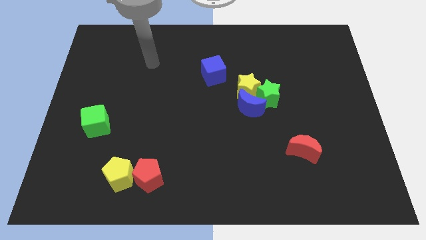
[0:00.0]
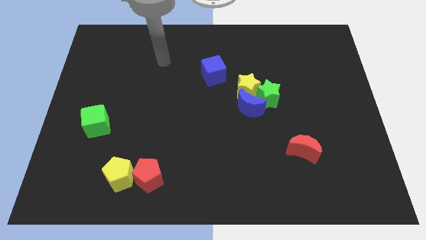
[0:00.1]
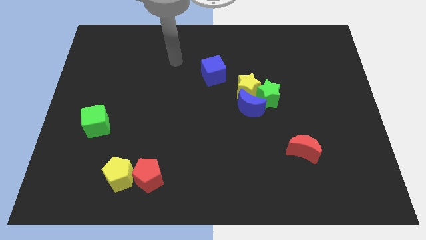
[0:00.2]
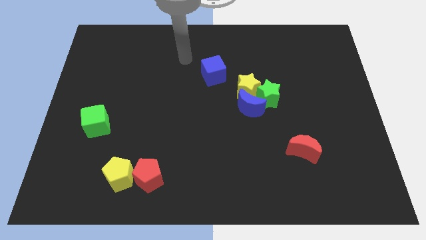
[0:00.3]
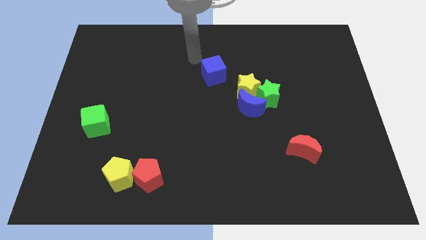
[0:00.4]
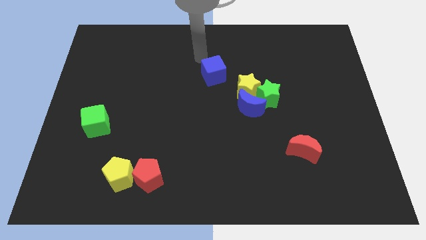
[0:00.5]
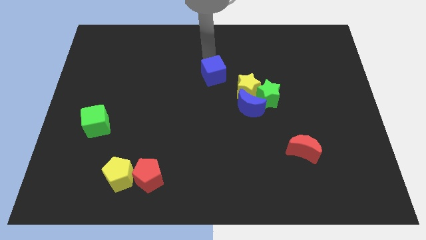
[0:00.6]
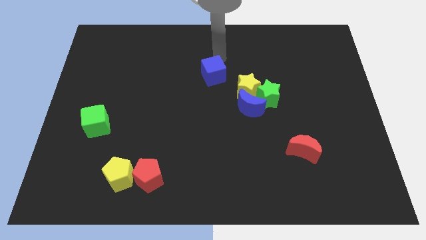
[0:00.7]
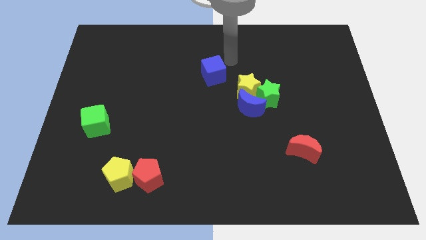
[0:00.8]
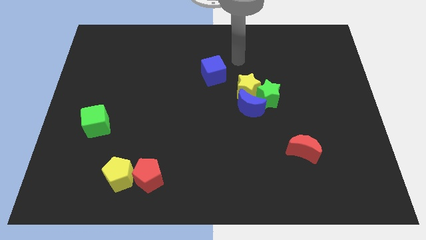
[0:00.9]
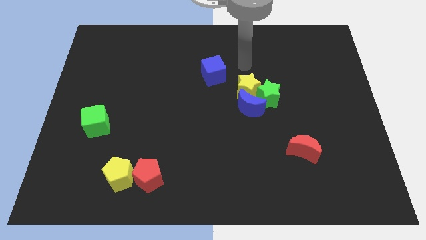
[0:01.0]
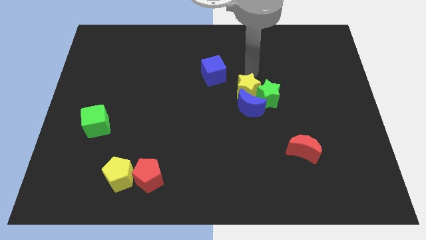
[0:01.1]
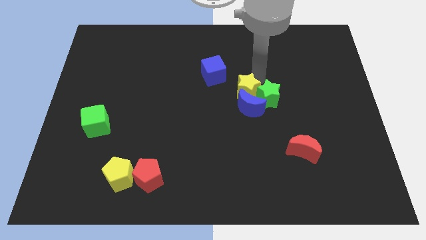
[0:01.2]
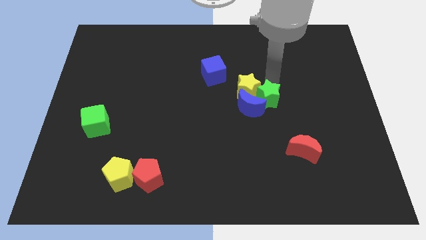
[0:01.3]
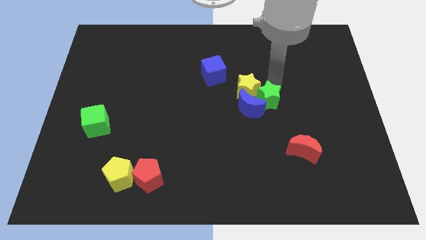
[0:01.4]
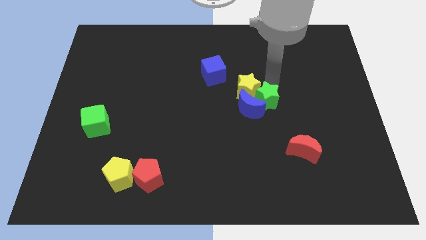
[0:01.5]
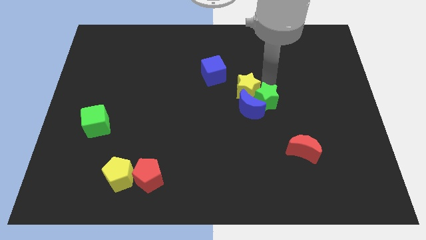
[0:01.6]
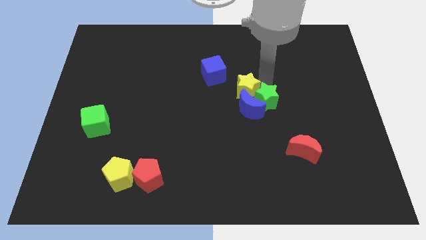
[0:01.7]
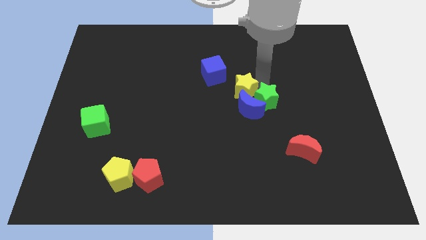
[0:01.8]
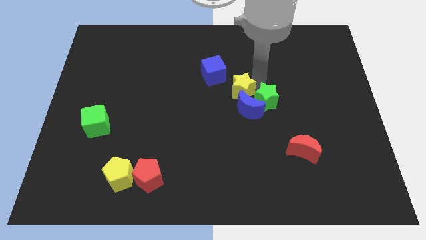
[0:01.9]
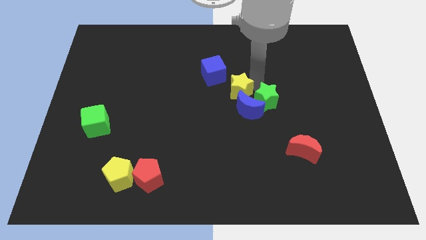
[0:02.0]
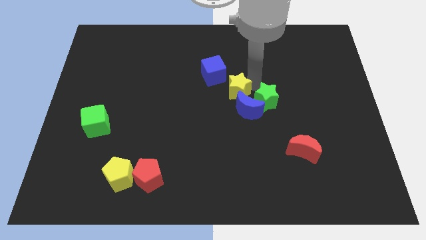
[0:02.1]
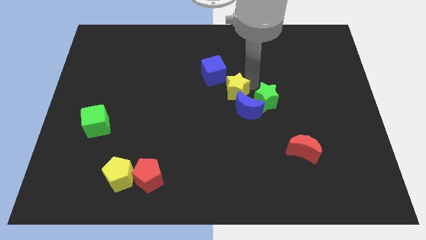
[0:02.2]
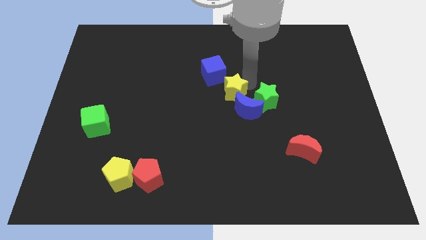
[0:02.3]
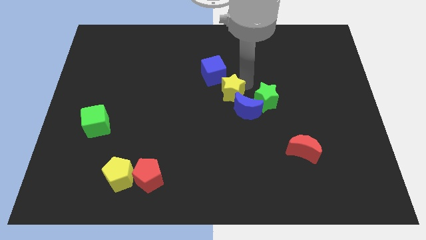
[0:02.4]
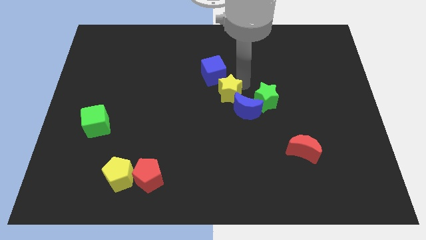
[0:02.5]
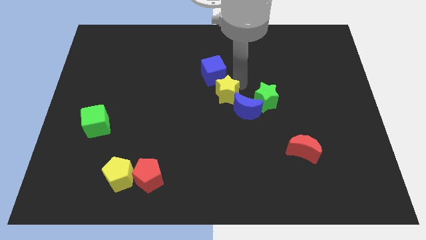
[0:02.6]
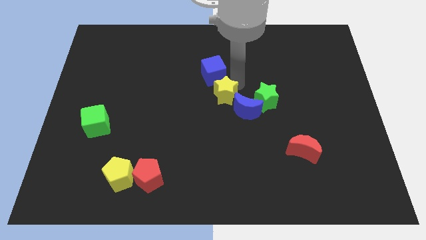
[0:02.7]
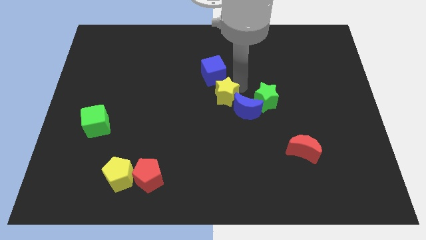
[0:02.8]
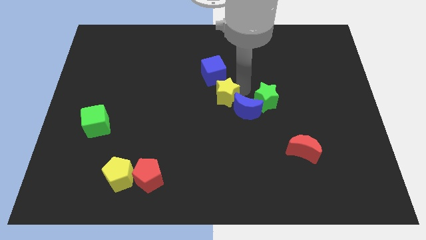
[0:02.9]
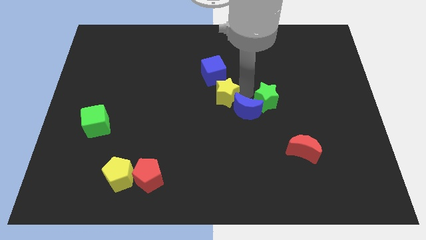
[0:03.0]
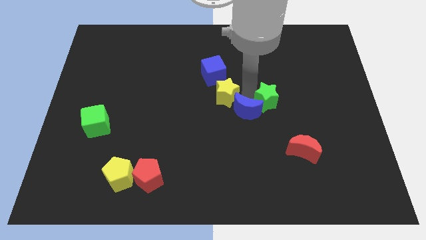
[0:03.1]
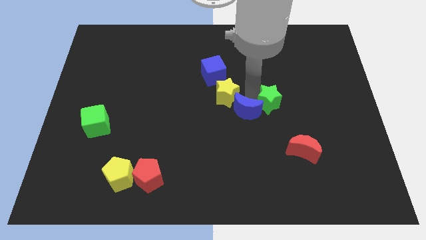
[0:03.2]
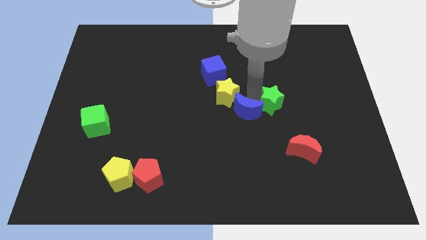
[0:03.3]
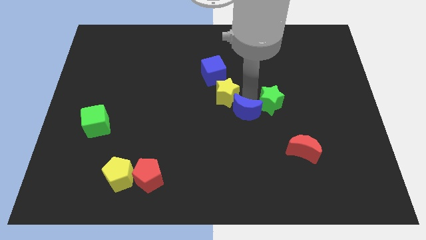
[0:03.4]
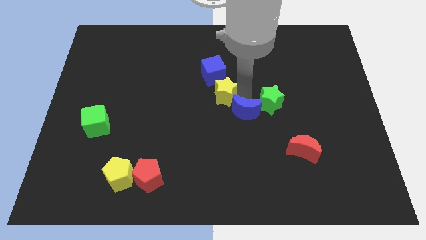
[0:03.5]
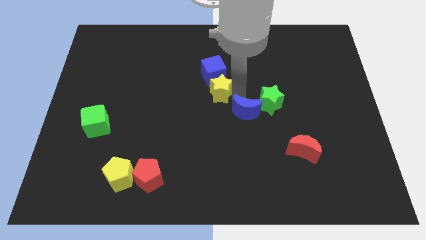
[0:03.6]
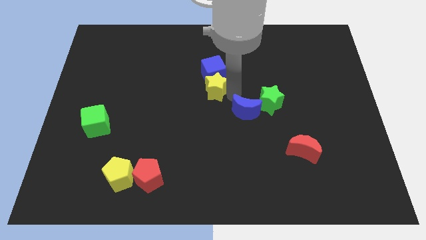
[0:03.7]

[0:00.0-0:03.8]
push the yellow star left slightly

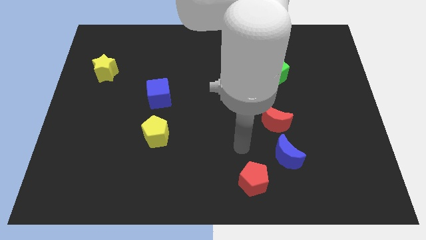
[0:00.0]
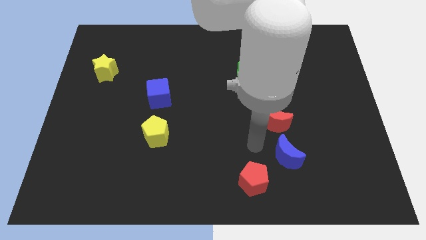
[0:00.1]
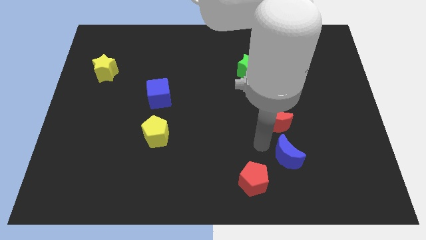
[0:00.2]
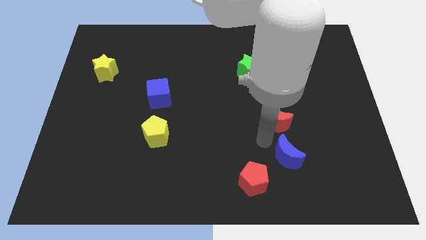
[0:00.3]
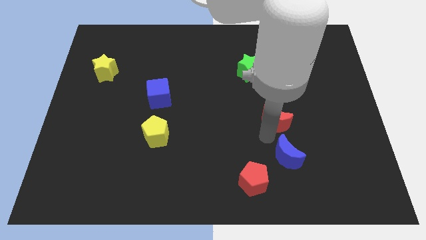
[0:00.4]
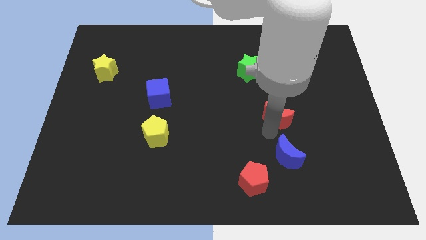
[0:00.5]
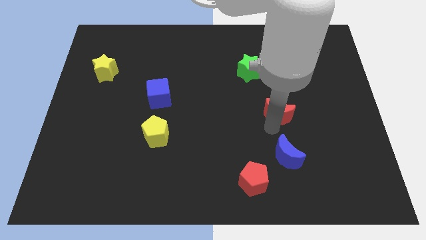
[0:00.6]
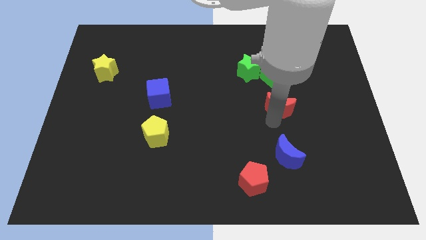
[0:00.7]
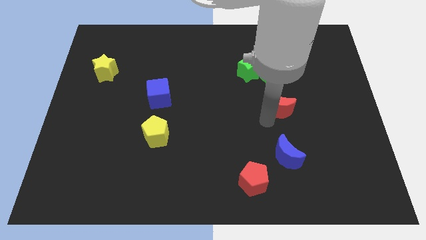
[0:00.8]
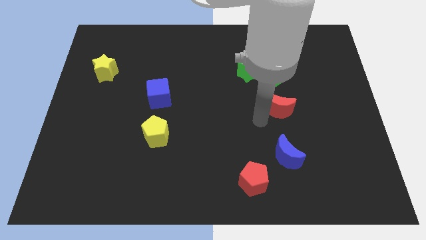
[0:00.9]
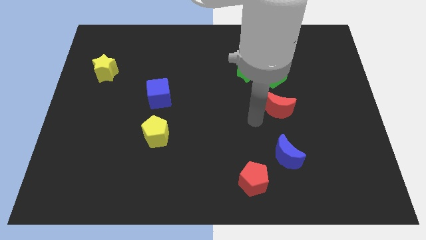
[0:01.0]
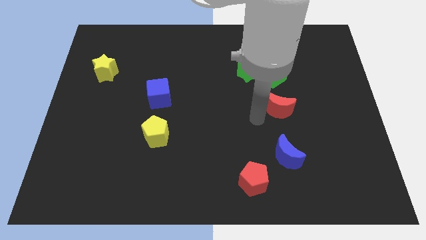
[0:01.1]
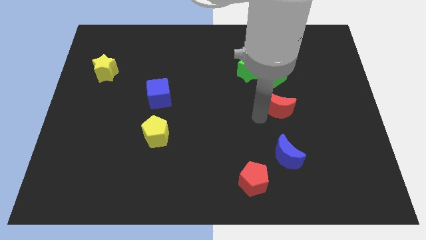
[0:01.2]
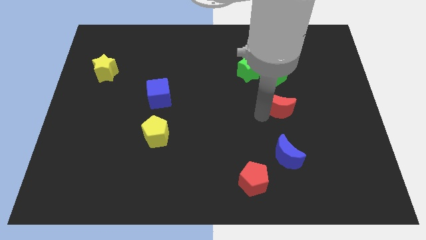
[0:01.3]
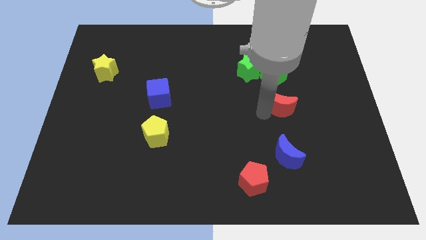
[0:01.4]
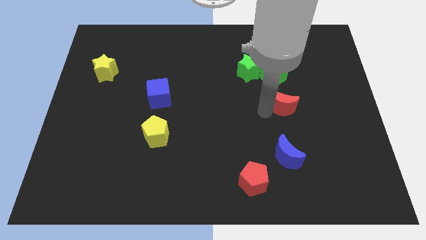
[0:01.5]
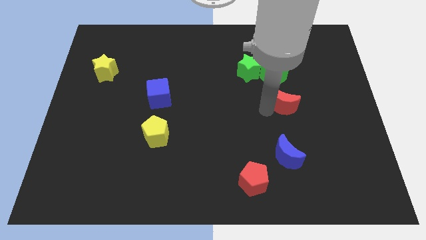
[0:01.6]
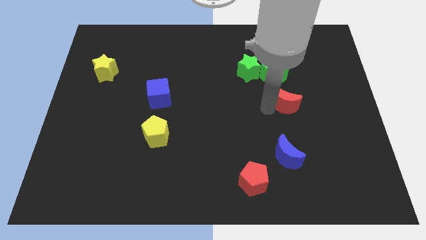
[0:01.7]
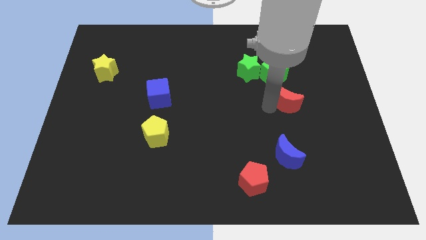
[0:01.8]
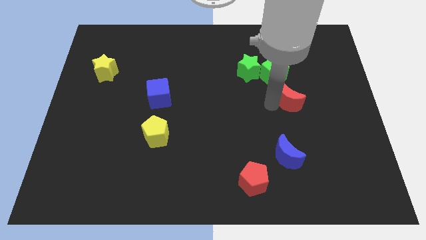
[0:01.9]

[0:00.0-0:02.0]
slightly slide the red moon up and right

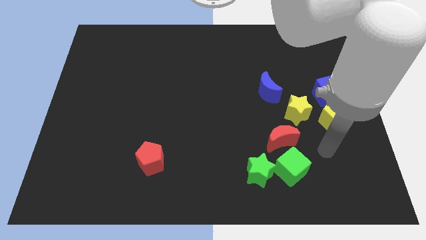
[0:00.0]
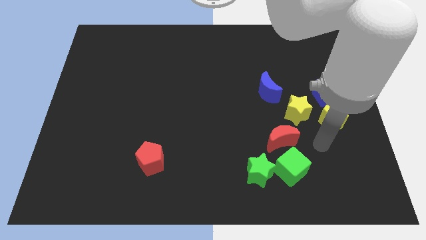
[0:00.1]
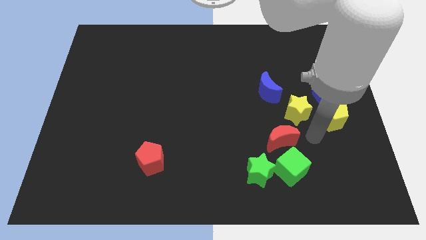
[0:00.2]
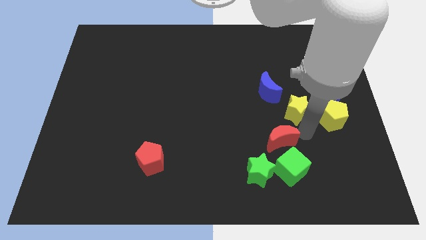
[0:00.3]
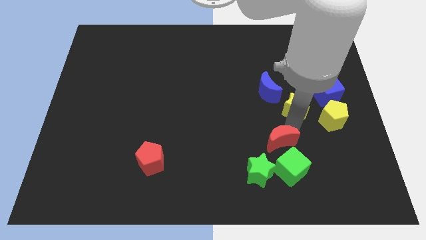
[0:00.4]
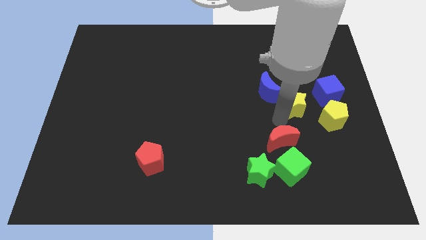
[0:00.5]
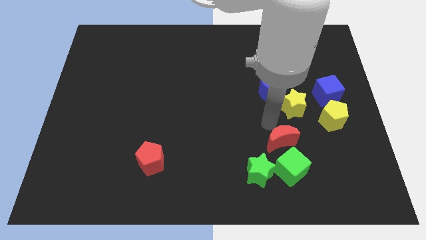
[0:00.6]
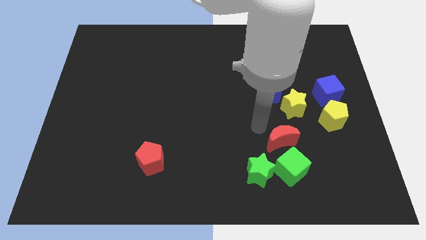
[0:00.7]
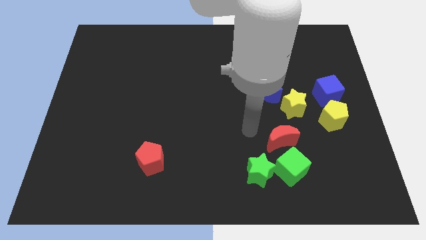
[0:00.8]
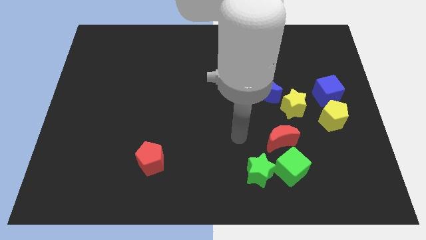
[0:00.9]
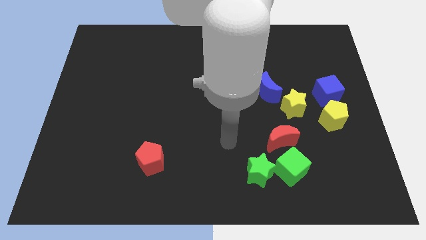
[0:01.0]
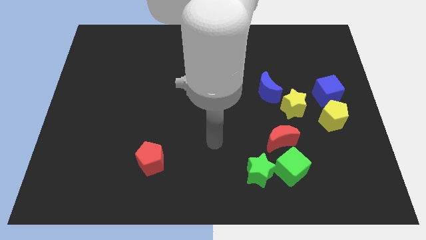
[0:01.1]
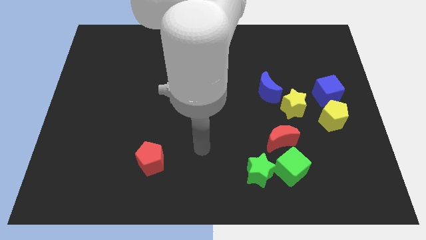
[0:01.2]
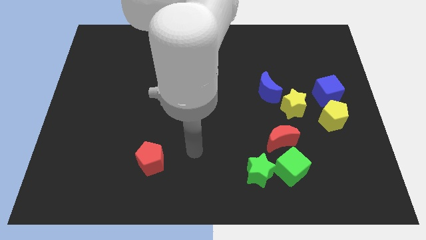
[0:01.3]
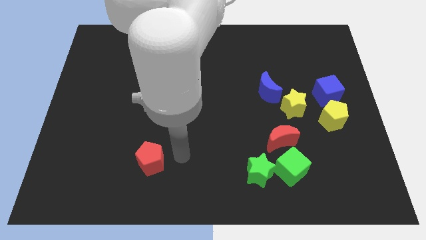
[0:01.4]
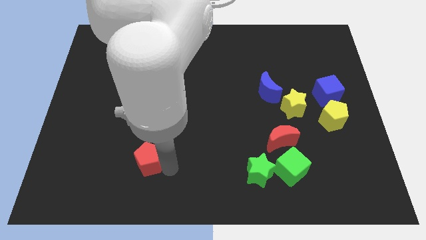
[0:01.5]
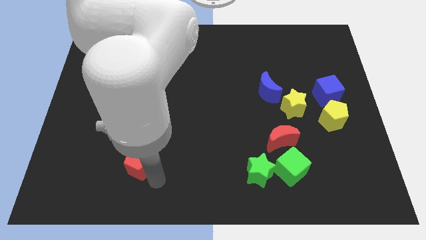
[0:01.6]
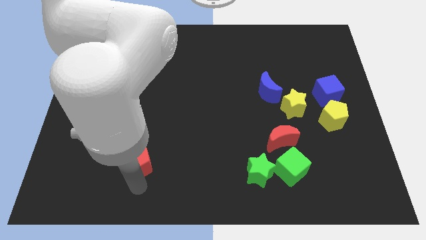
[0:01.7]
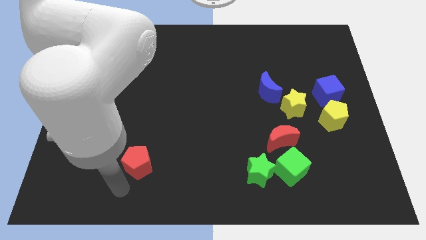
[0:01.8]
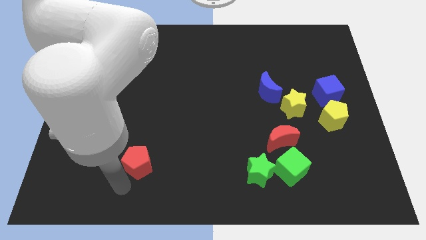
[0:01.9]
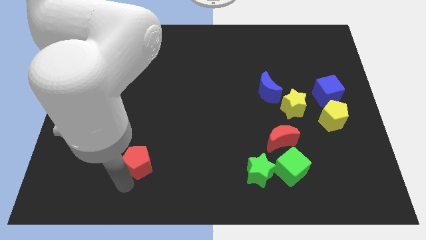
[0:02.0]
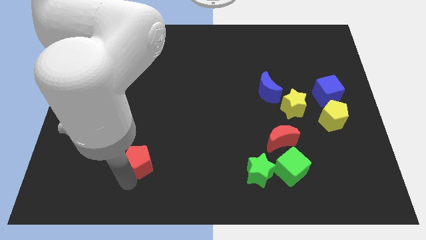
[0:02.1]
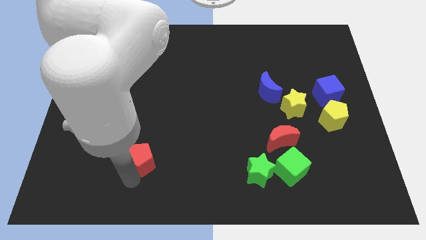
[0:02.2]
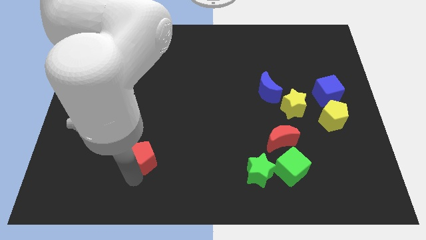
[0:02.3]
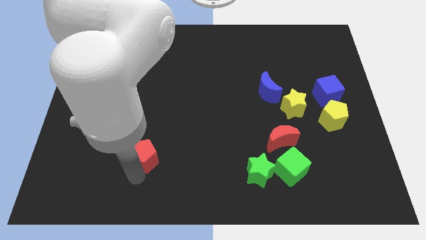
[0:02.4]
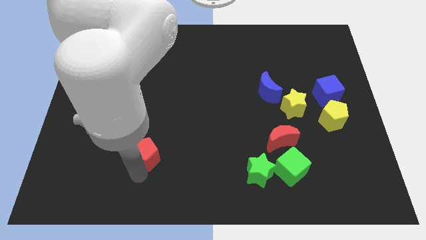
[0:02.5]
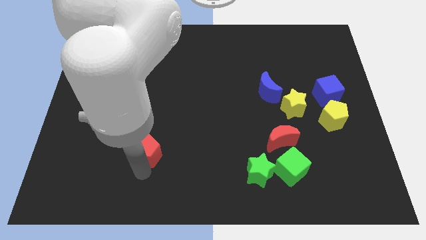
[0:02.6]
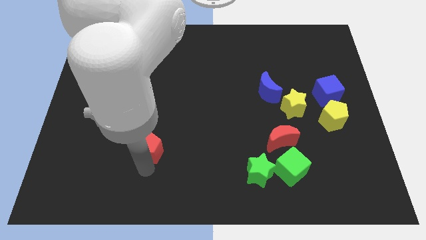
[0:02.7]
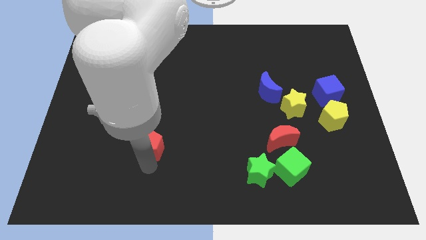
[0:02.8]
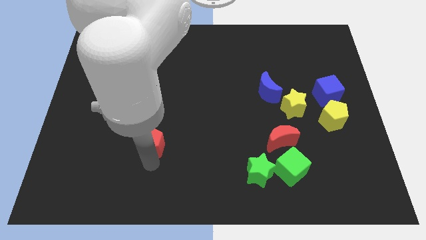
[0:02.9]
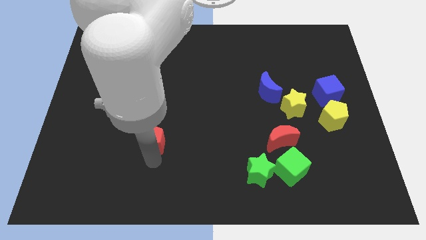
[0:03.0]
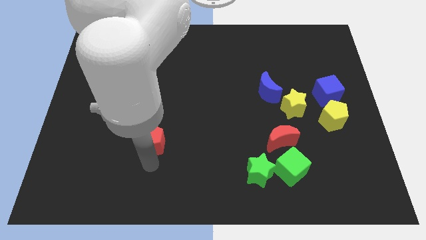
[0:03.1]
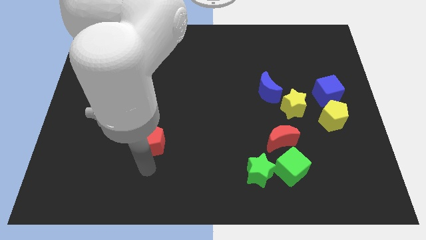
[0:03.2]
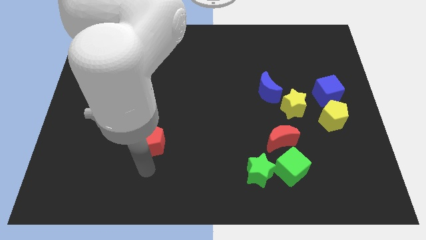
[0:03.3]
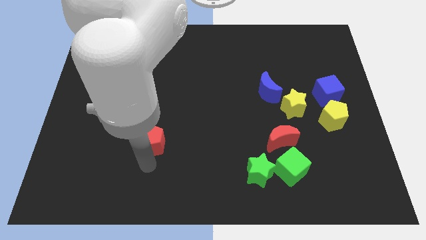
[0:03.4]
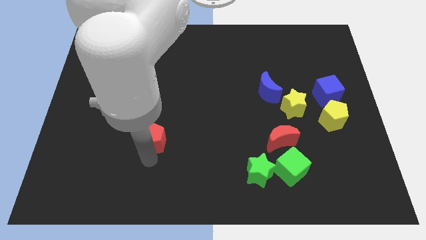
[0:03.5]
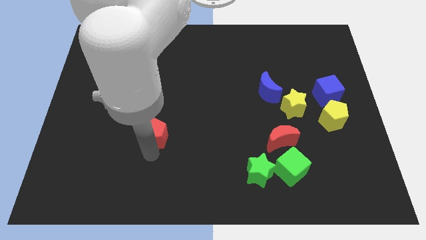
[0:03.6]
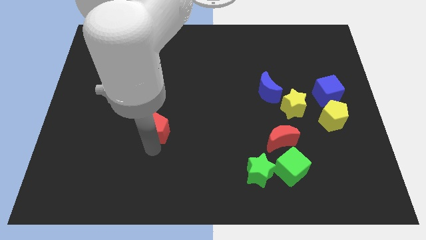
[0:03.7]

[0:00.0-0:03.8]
push the red pentagon a little up
